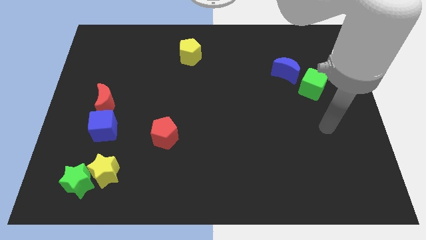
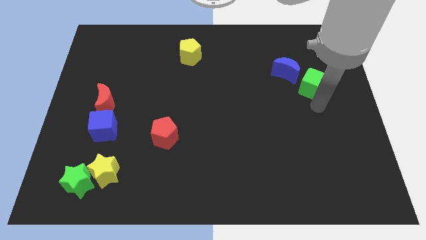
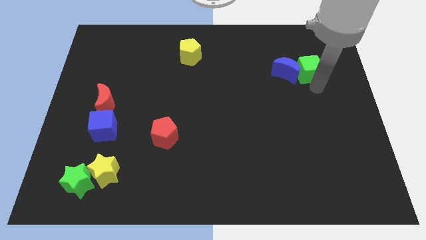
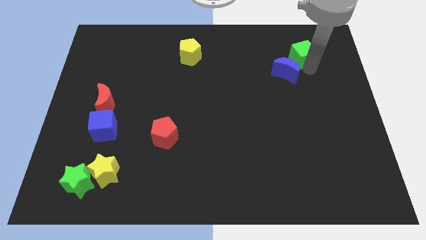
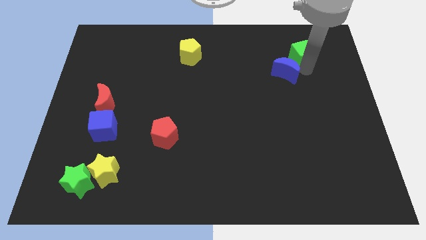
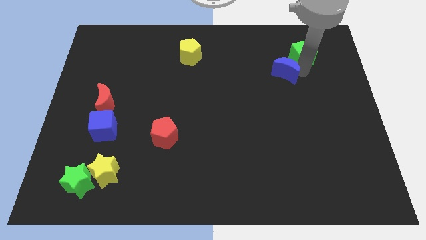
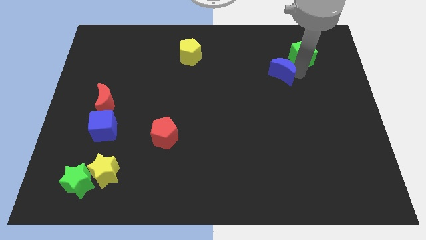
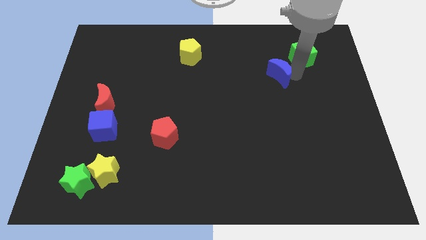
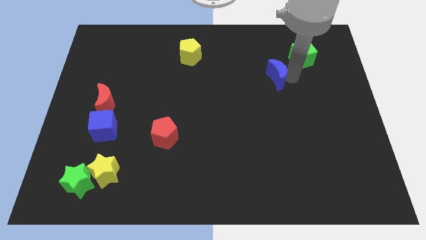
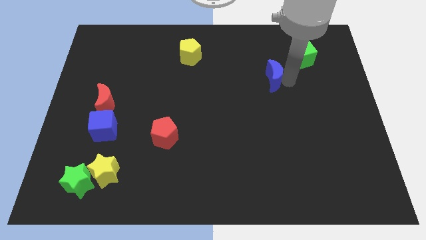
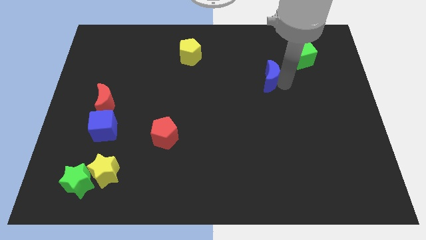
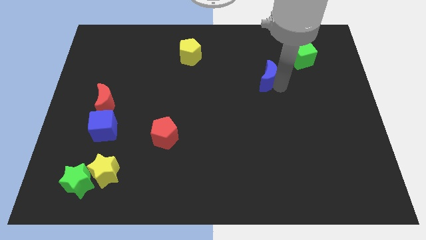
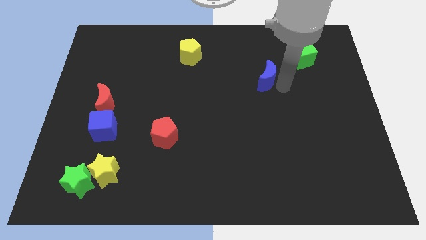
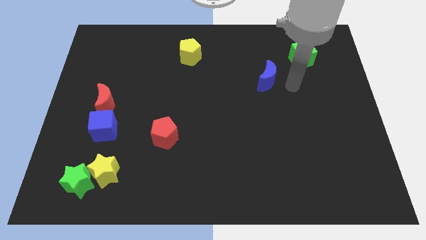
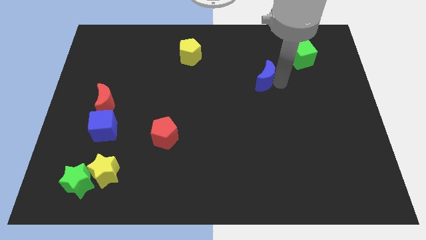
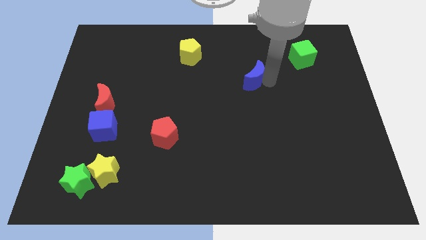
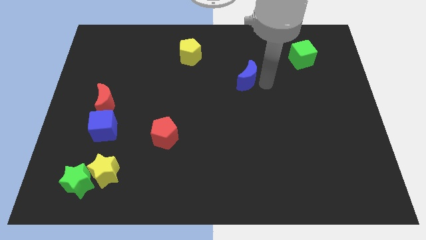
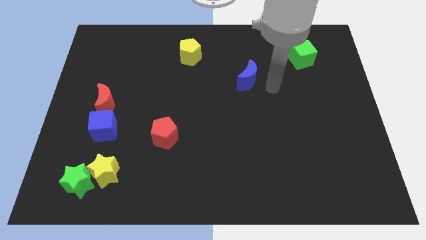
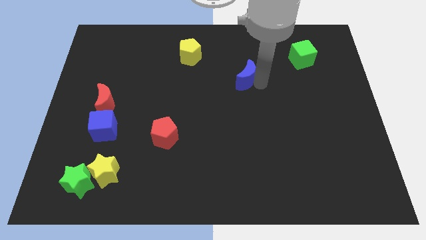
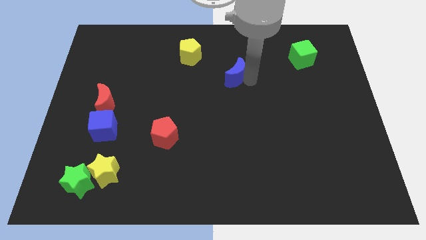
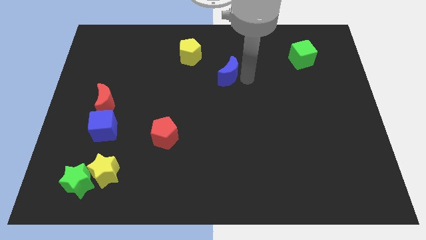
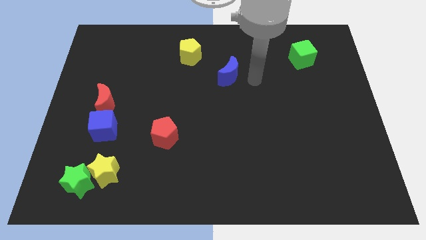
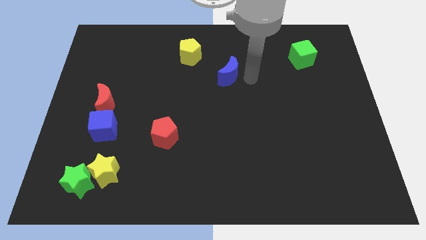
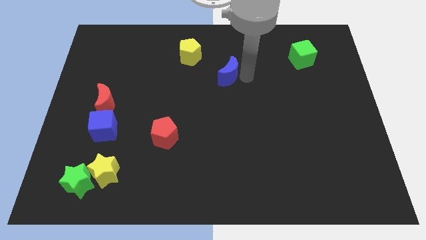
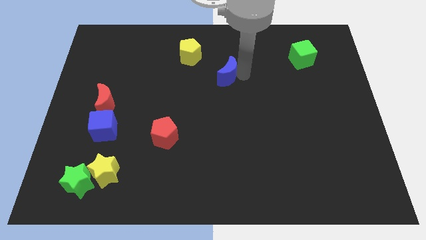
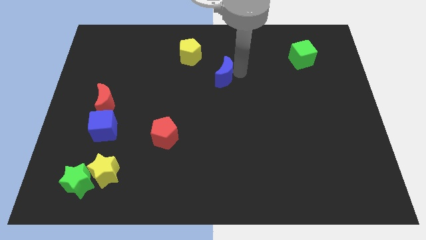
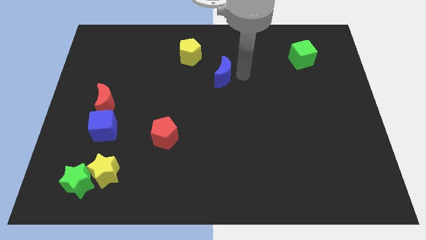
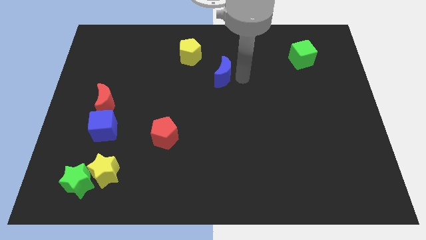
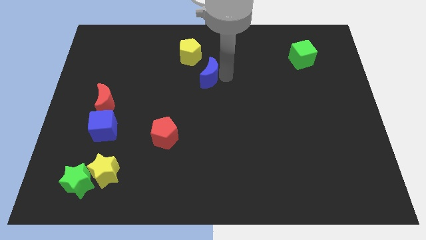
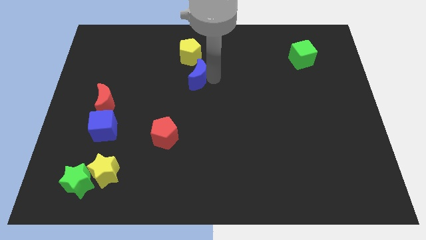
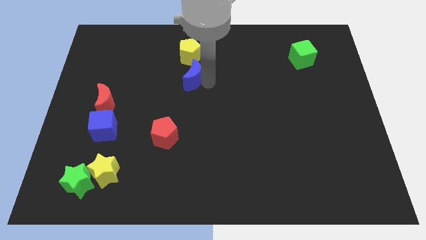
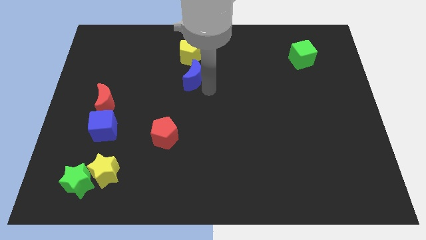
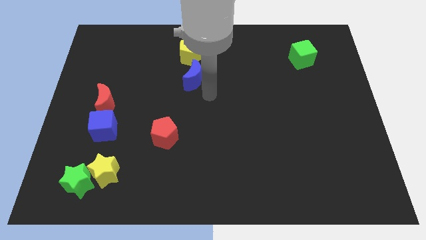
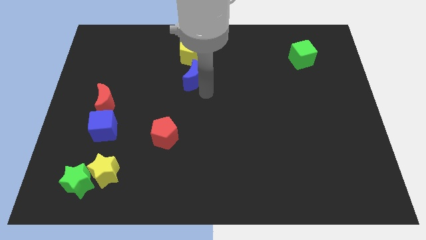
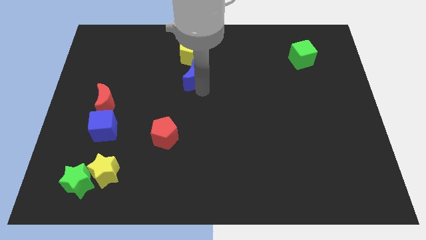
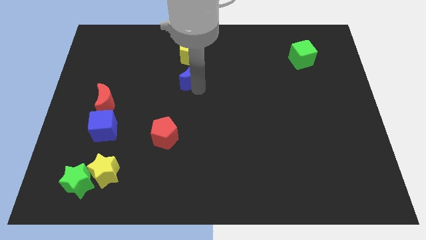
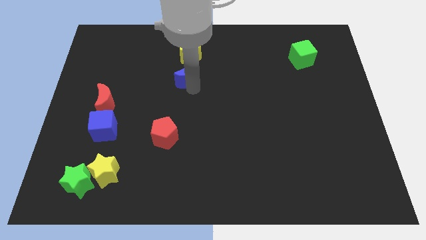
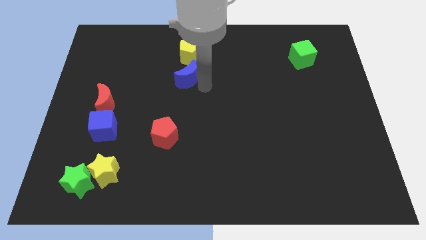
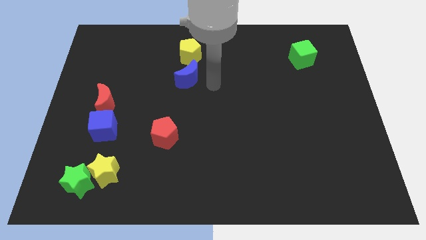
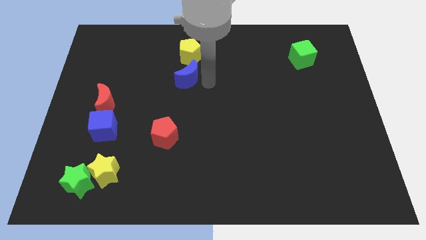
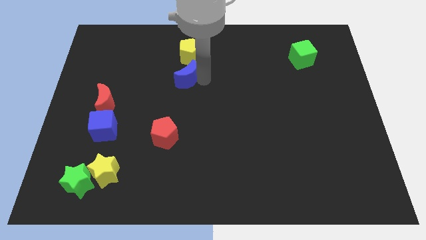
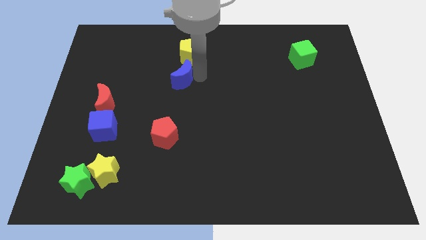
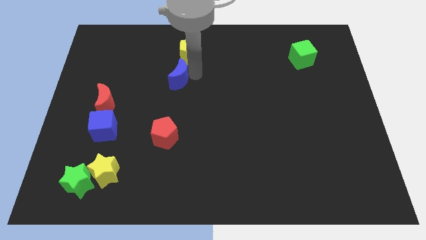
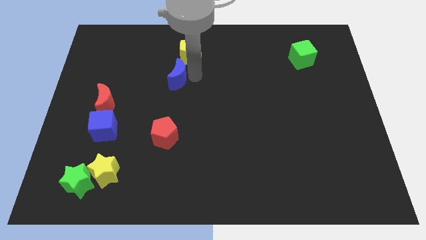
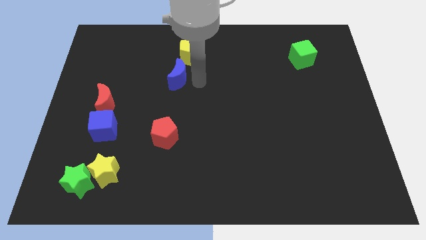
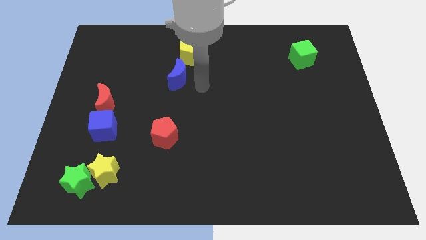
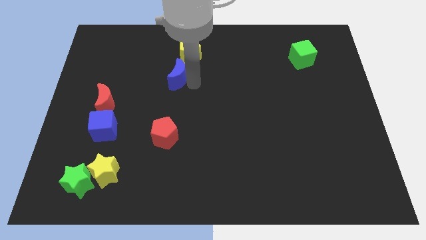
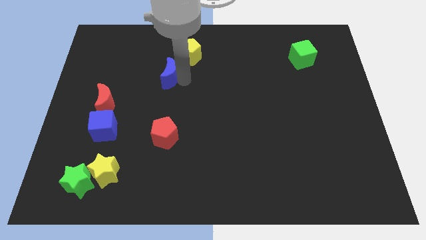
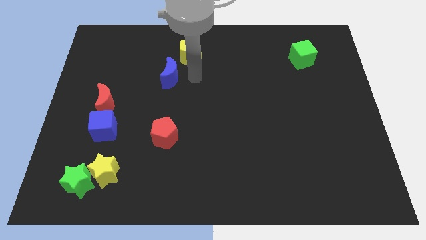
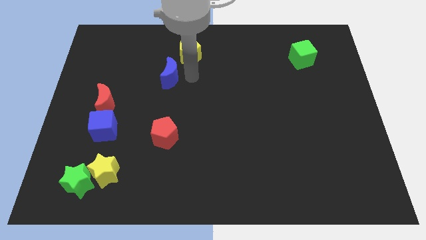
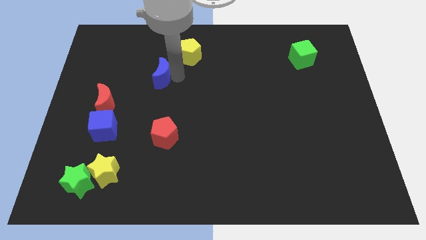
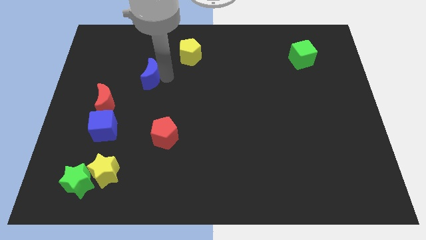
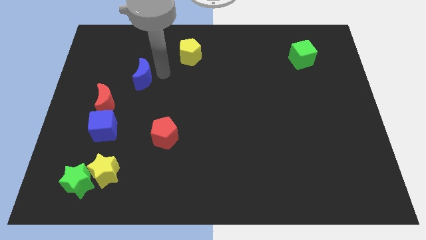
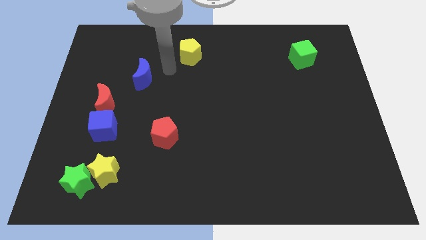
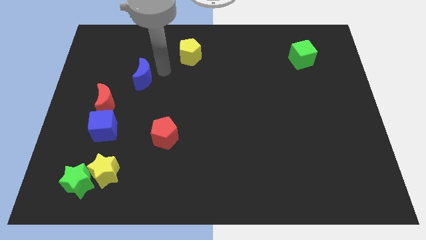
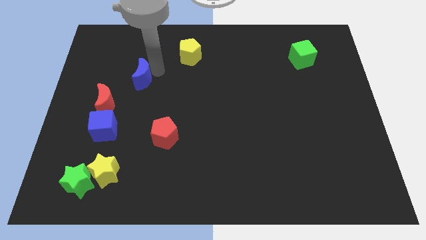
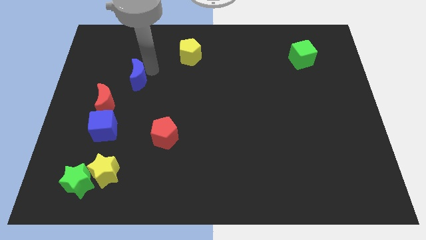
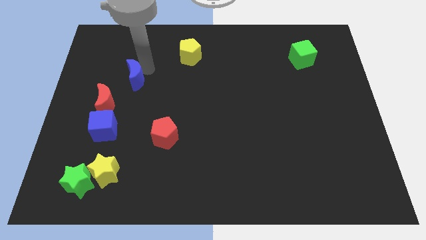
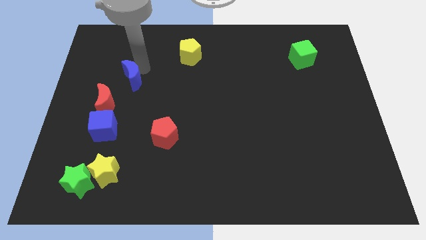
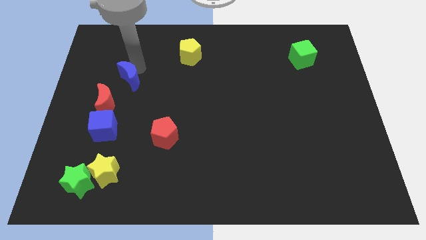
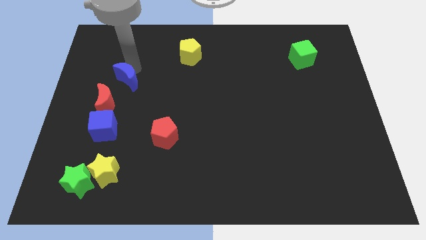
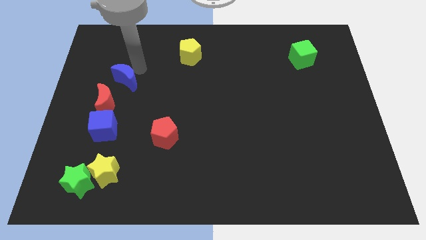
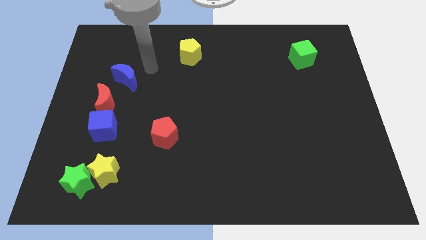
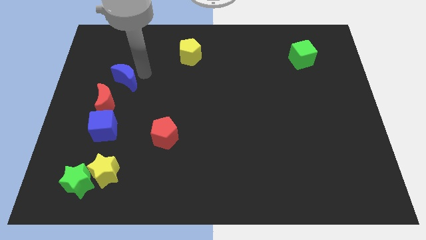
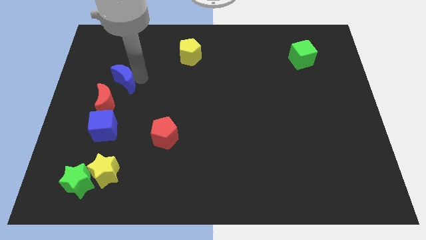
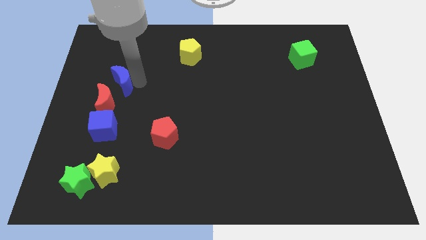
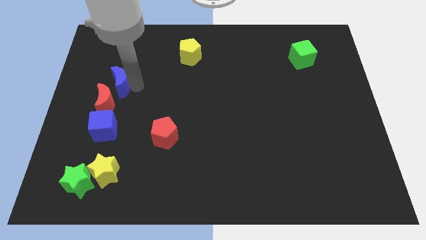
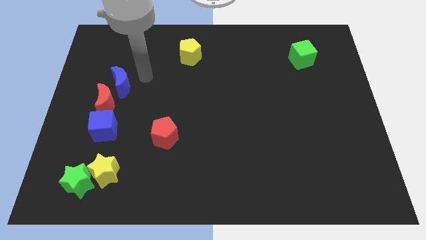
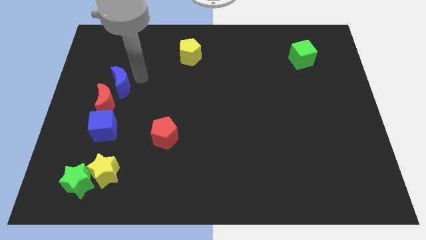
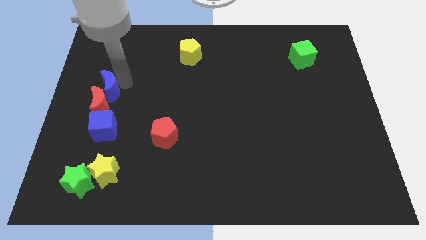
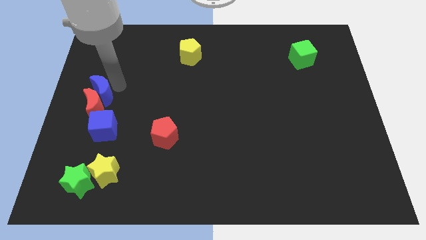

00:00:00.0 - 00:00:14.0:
slide the blue moon to the center left
